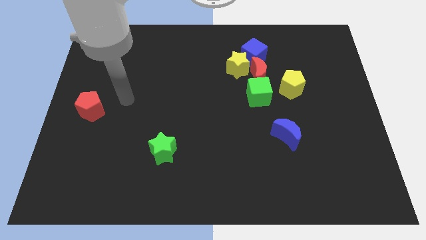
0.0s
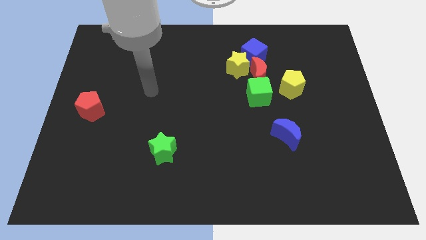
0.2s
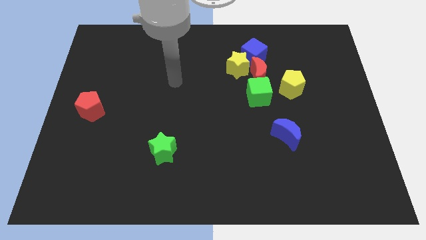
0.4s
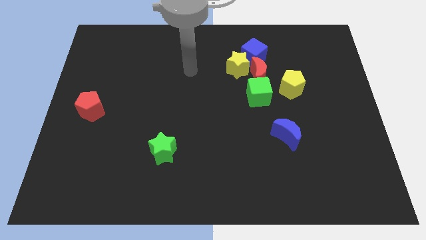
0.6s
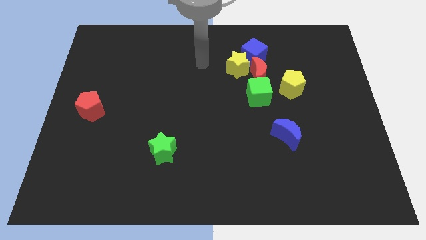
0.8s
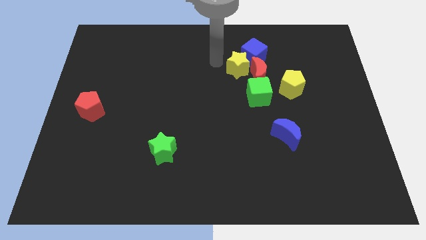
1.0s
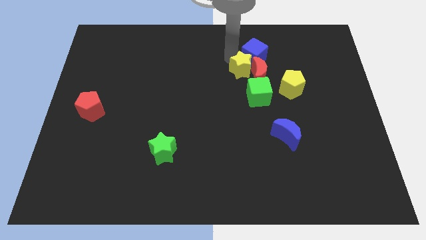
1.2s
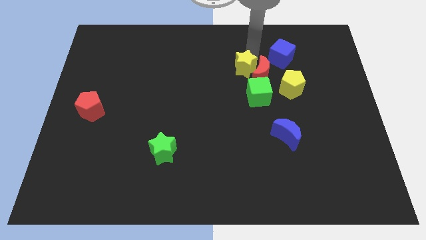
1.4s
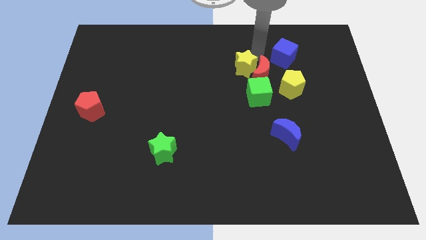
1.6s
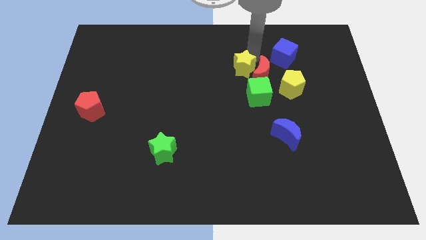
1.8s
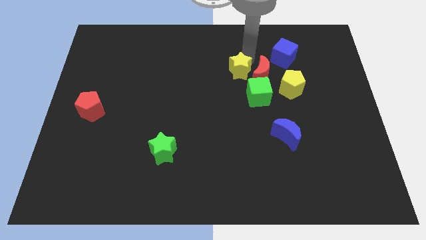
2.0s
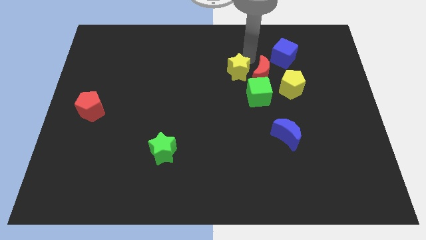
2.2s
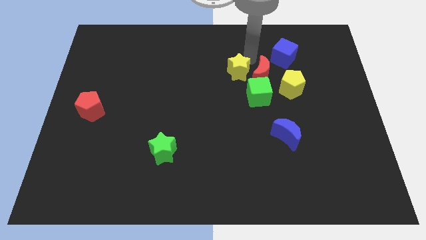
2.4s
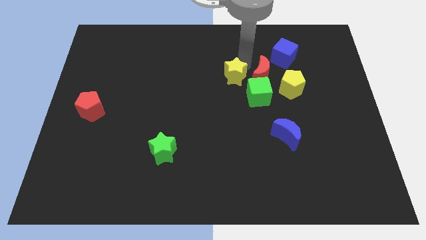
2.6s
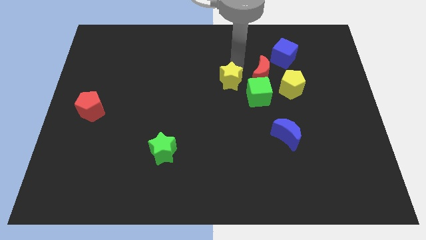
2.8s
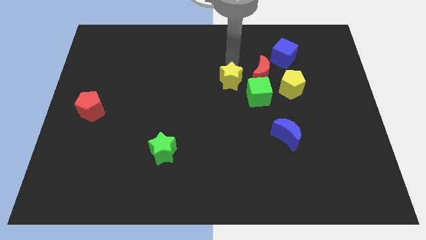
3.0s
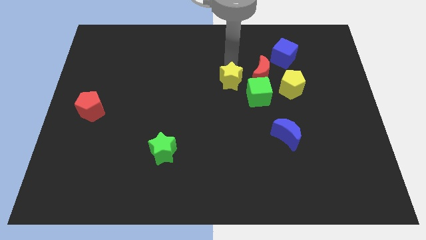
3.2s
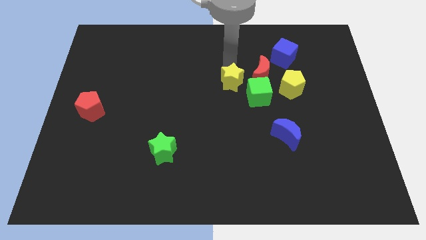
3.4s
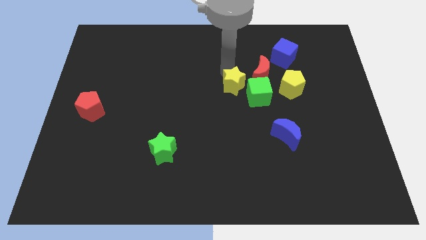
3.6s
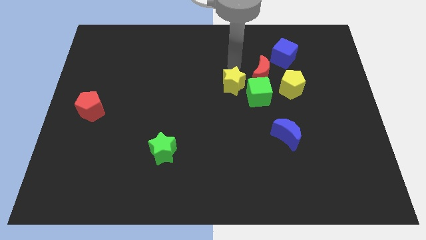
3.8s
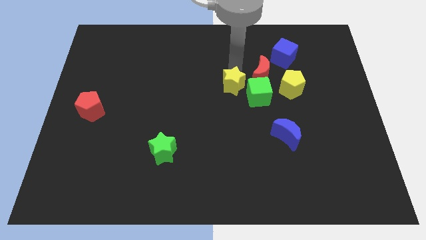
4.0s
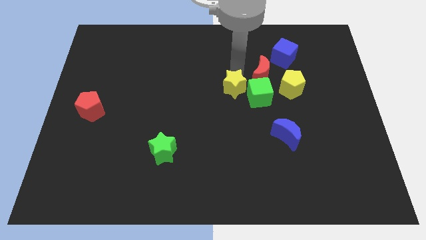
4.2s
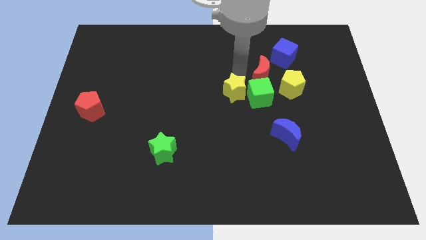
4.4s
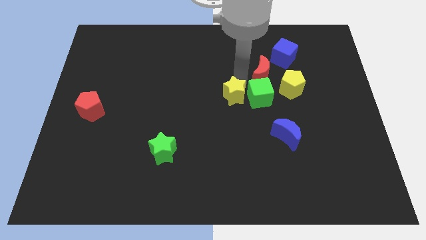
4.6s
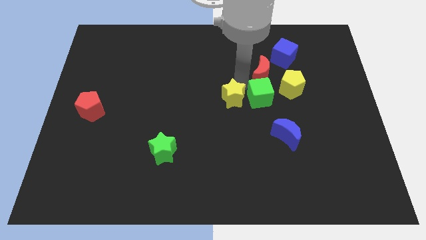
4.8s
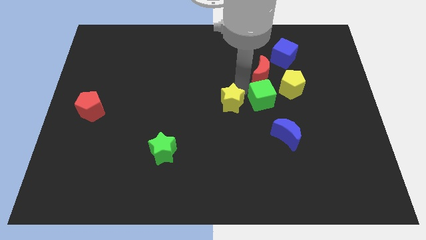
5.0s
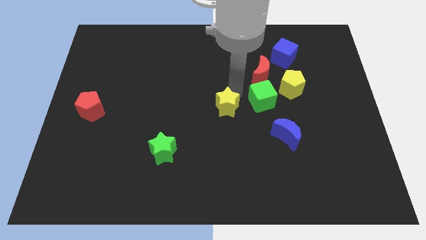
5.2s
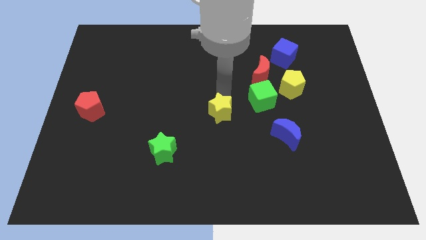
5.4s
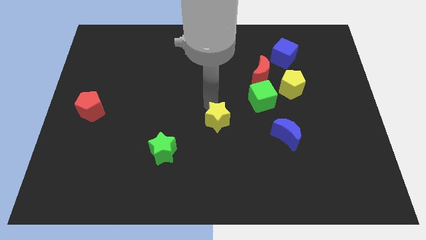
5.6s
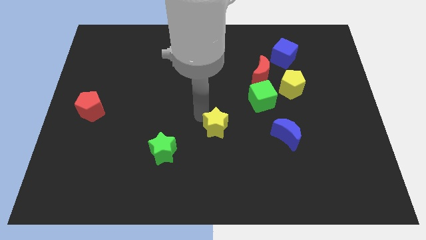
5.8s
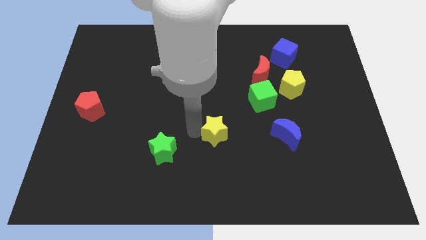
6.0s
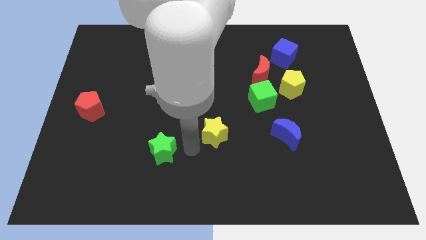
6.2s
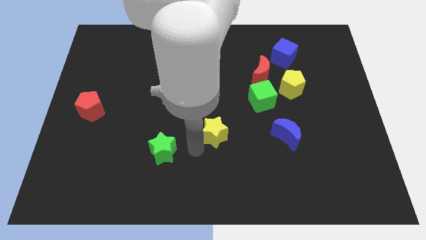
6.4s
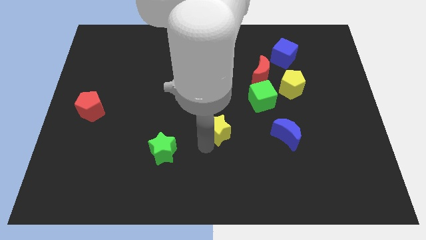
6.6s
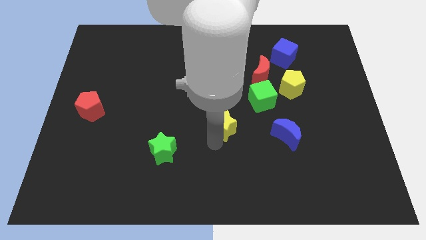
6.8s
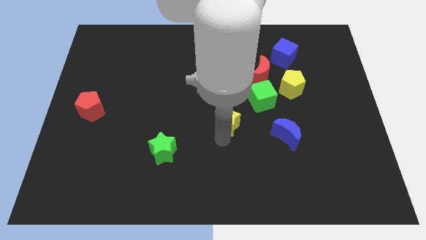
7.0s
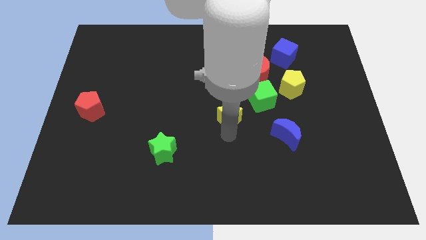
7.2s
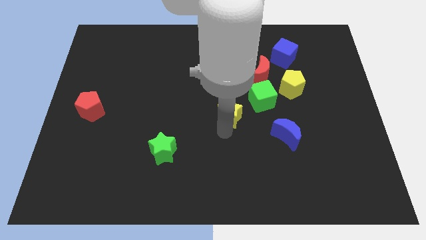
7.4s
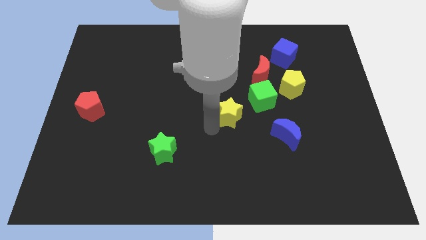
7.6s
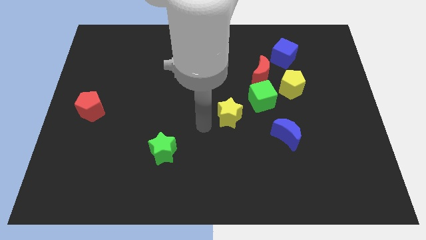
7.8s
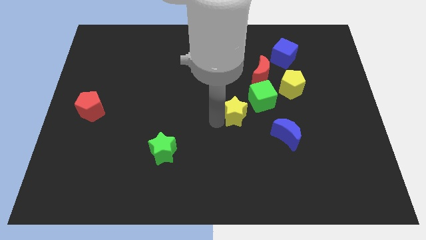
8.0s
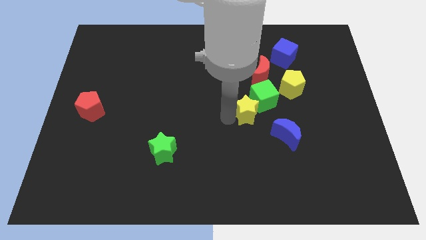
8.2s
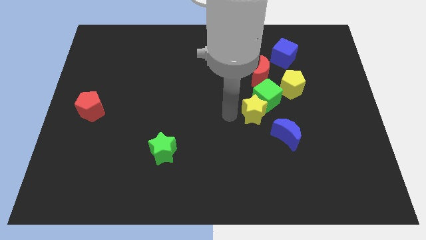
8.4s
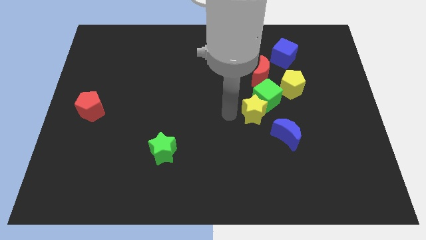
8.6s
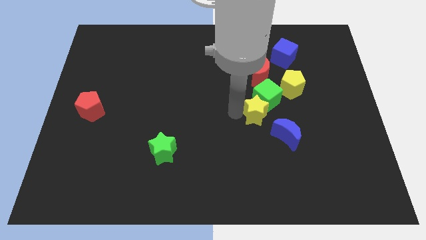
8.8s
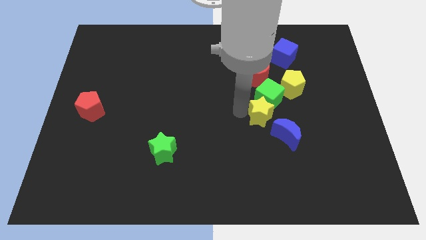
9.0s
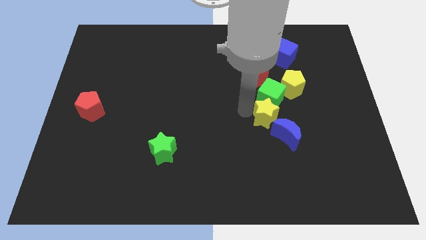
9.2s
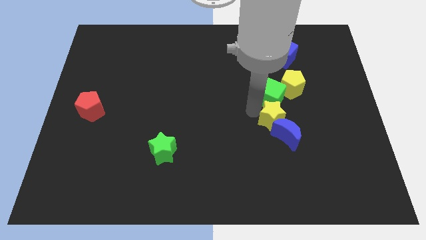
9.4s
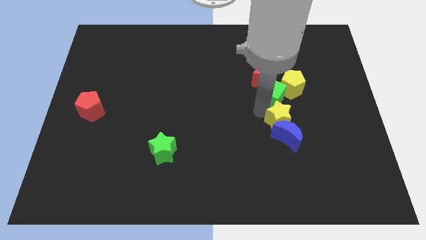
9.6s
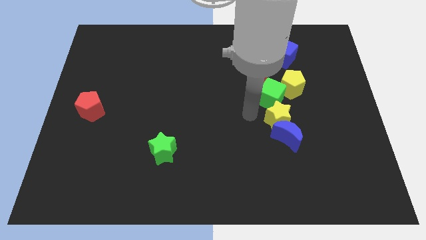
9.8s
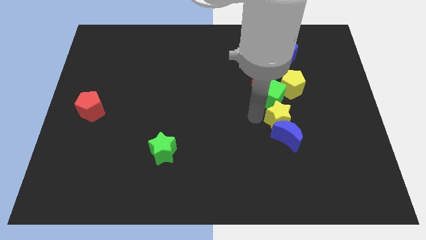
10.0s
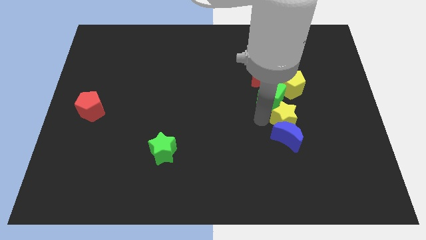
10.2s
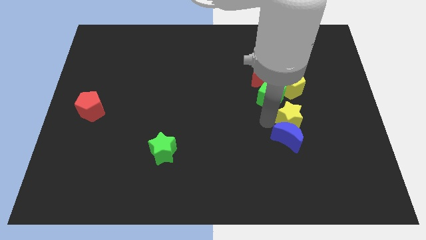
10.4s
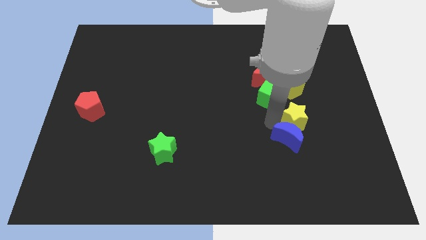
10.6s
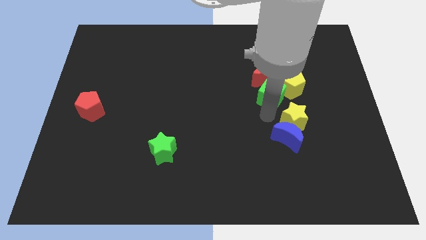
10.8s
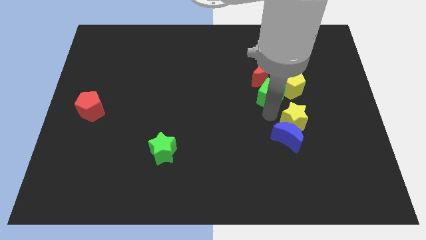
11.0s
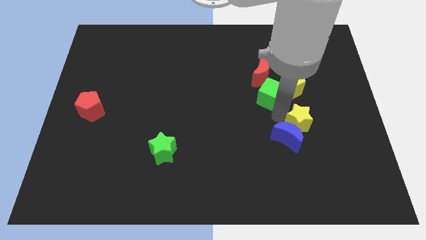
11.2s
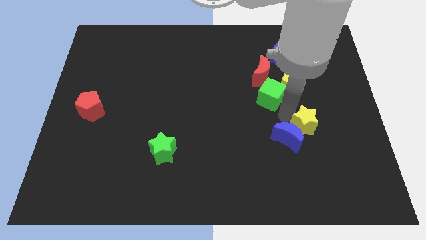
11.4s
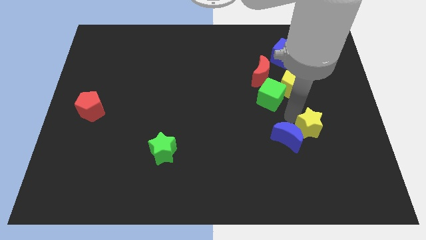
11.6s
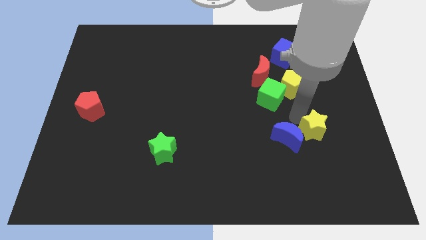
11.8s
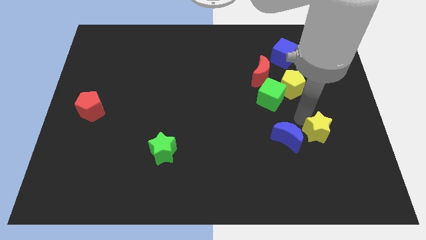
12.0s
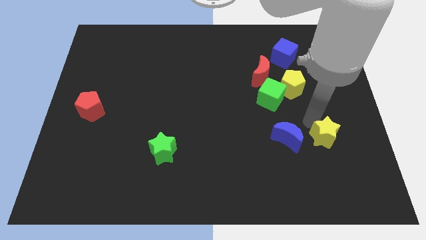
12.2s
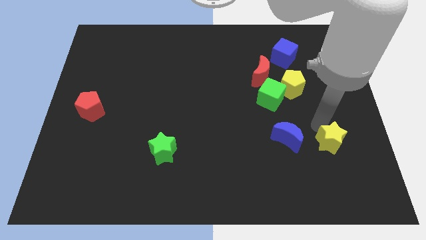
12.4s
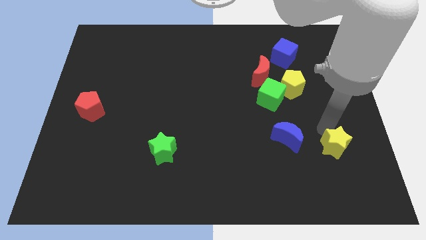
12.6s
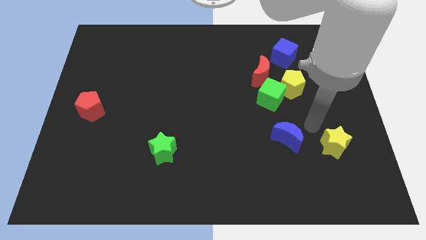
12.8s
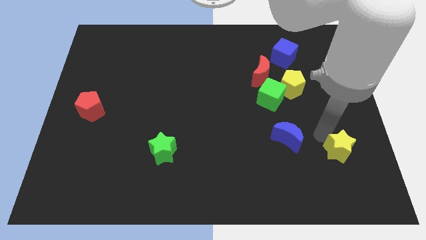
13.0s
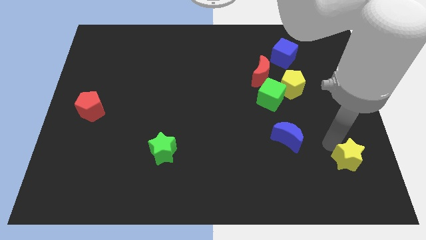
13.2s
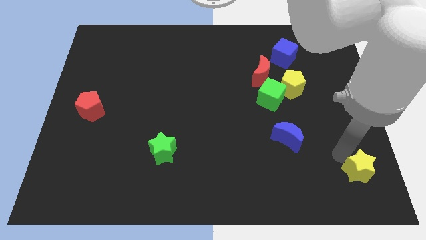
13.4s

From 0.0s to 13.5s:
move the yellow star to the lower right corner
